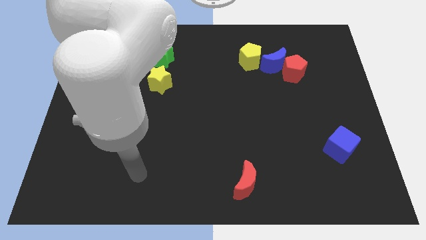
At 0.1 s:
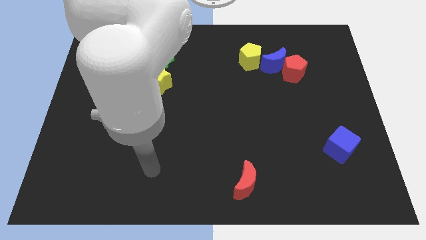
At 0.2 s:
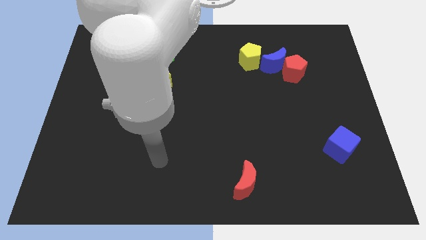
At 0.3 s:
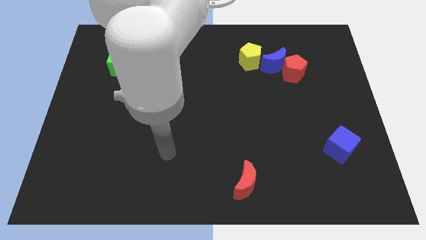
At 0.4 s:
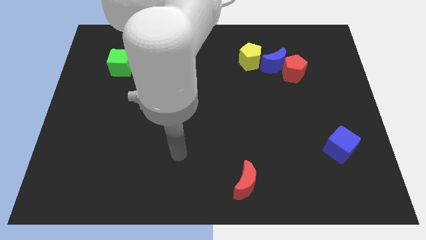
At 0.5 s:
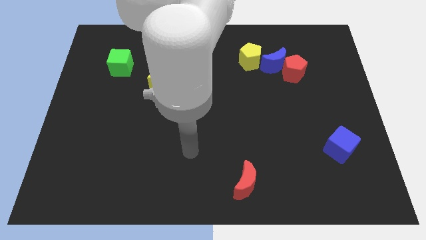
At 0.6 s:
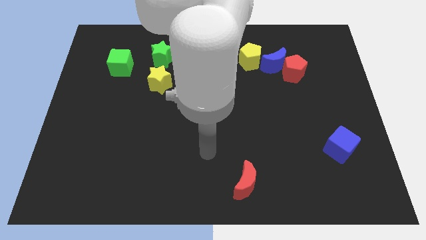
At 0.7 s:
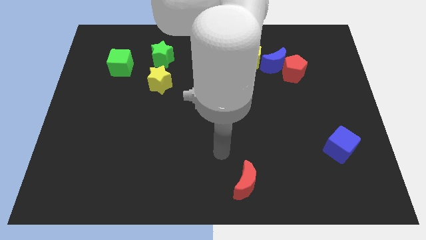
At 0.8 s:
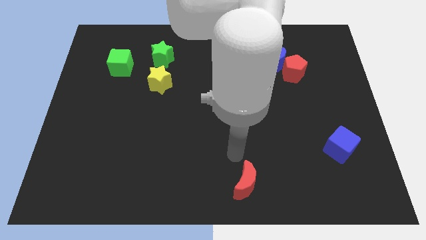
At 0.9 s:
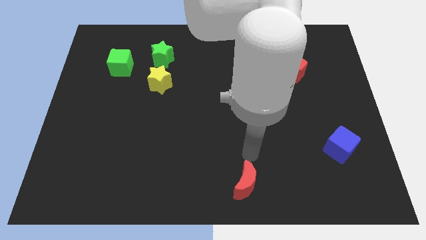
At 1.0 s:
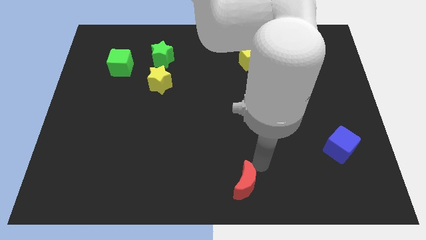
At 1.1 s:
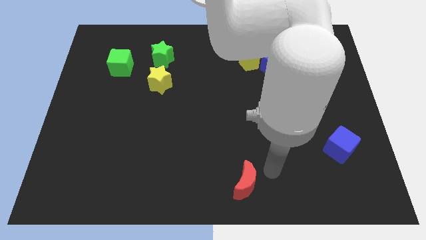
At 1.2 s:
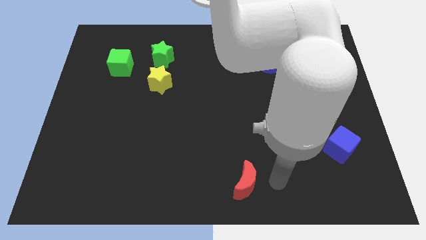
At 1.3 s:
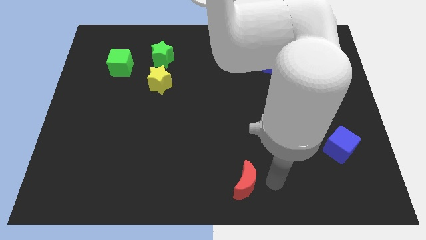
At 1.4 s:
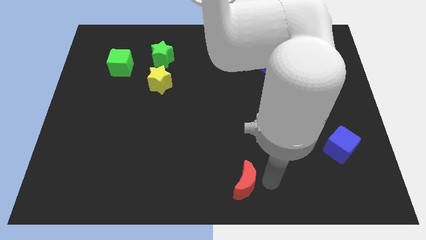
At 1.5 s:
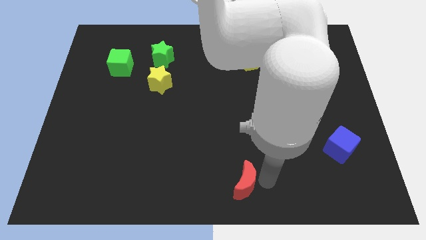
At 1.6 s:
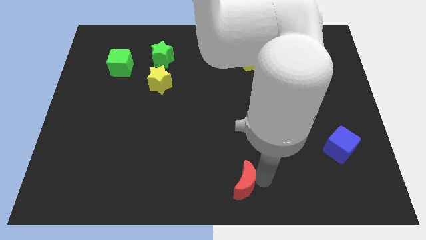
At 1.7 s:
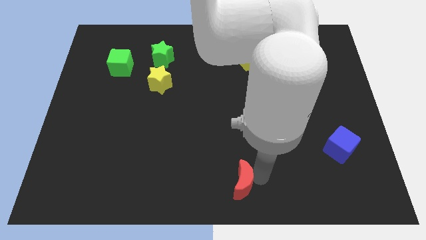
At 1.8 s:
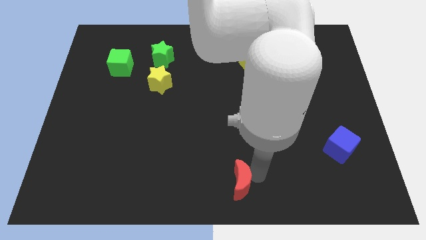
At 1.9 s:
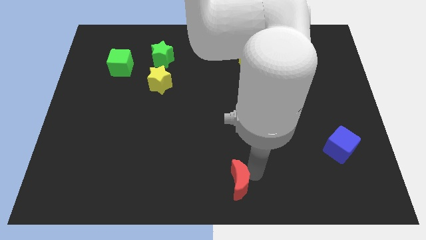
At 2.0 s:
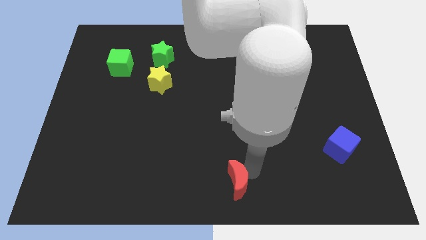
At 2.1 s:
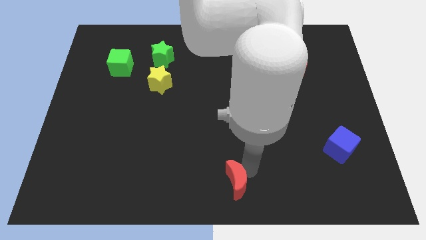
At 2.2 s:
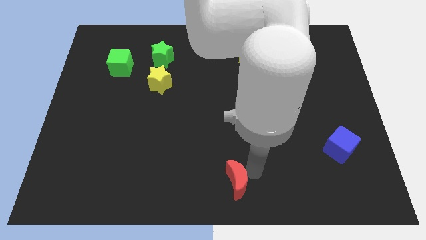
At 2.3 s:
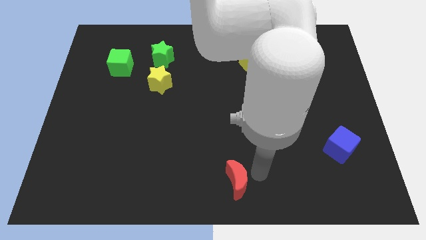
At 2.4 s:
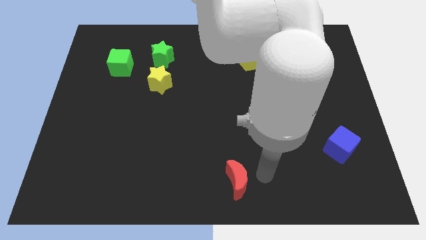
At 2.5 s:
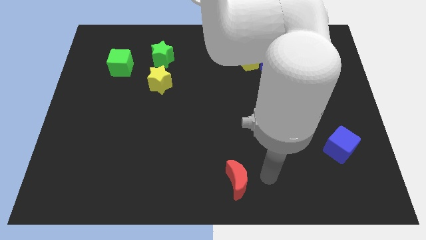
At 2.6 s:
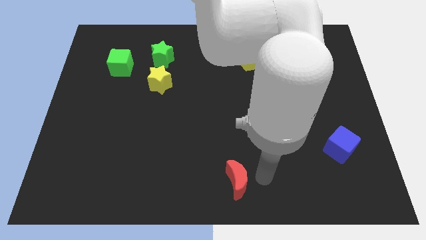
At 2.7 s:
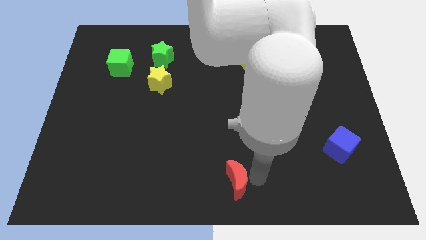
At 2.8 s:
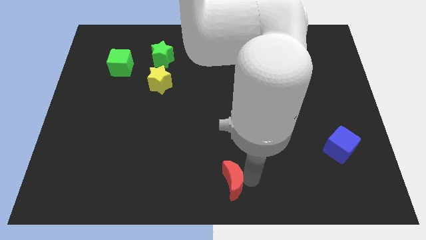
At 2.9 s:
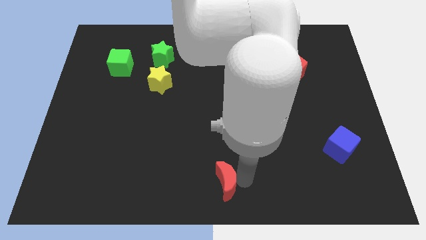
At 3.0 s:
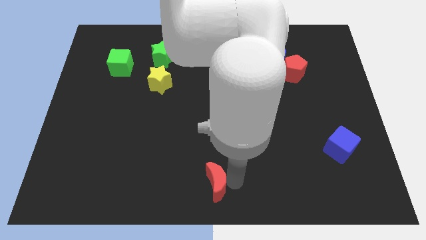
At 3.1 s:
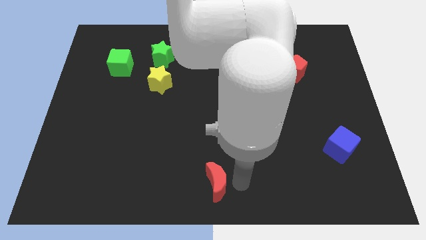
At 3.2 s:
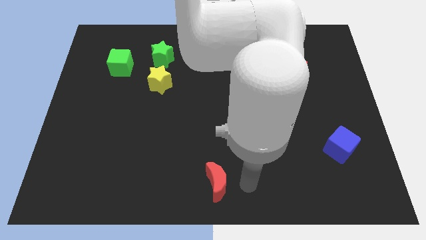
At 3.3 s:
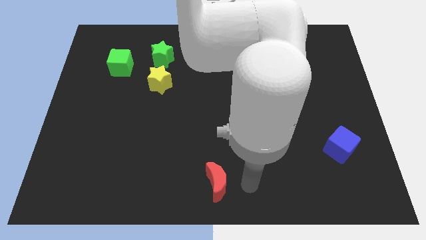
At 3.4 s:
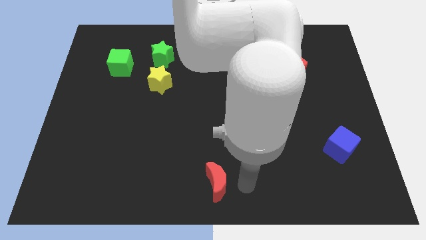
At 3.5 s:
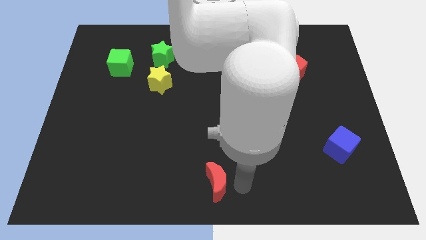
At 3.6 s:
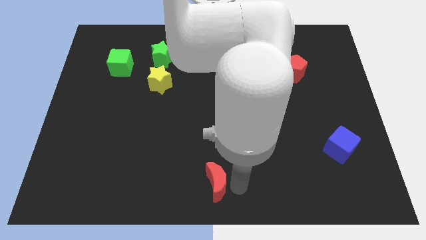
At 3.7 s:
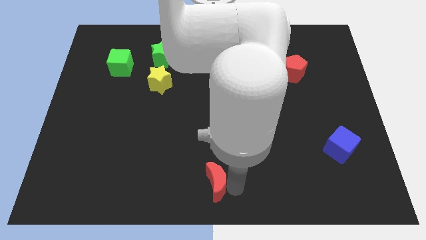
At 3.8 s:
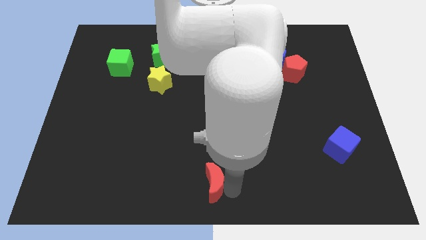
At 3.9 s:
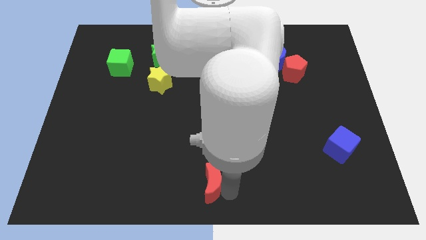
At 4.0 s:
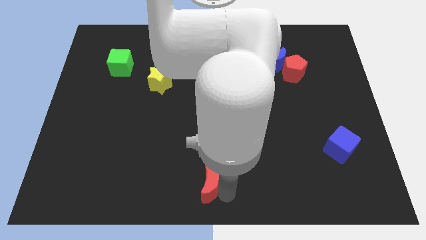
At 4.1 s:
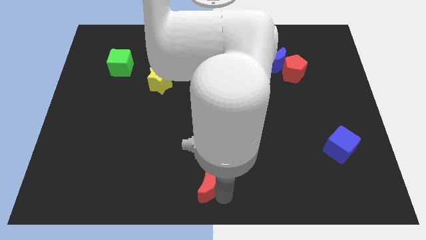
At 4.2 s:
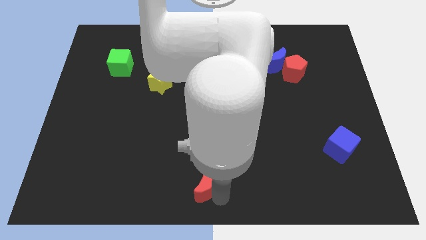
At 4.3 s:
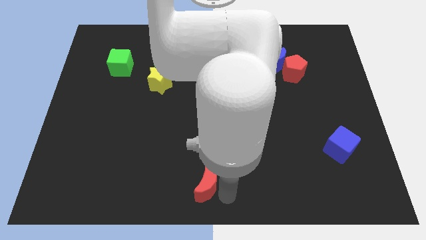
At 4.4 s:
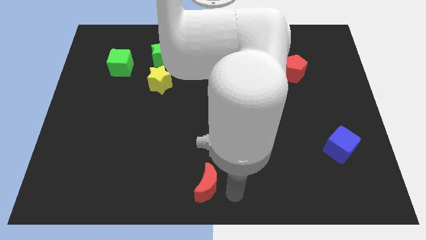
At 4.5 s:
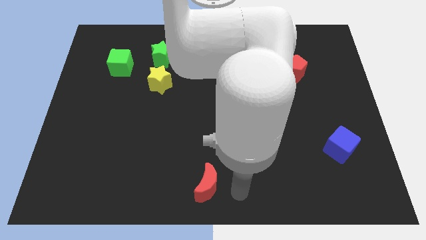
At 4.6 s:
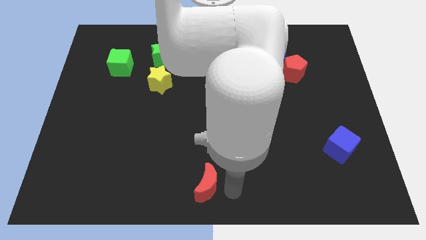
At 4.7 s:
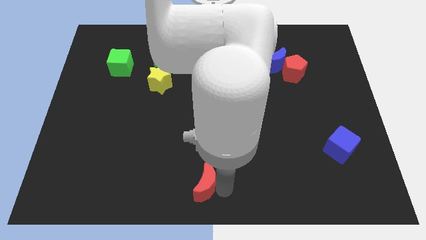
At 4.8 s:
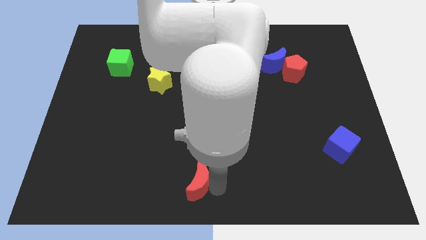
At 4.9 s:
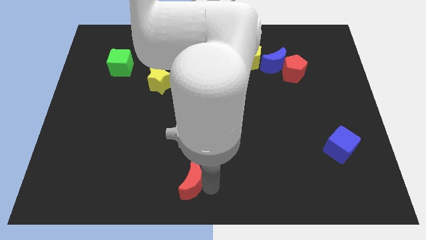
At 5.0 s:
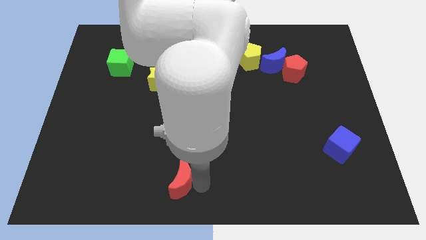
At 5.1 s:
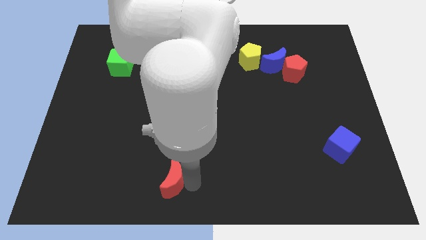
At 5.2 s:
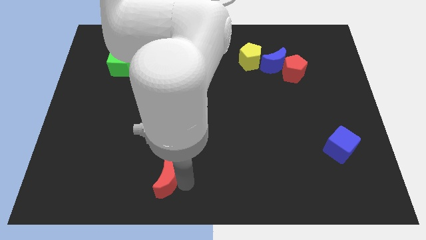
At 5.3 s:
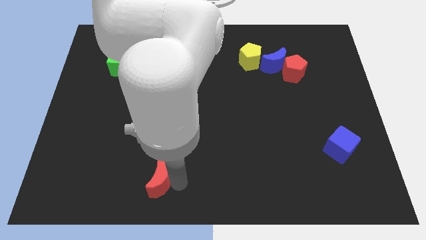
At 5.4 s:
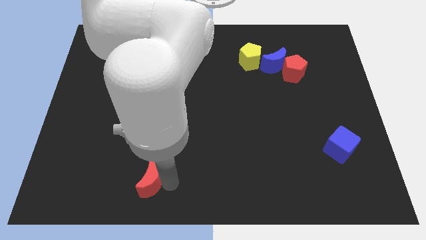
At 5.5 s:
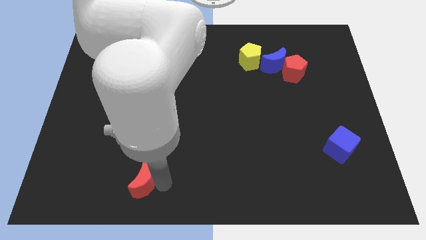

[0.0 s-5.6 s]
move the red moon left

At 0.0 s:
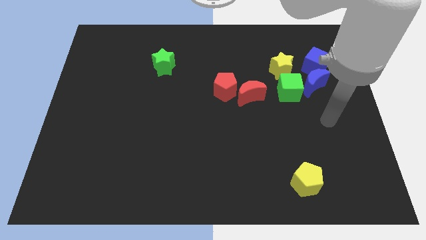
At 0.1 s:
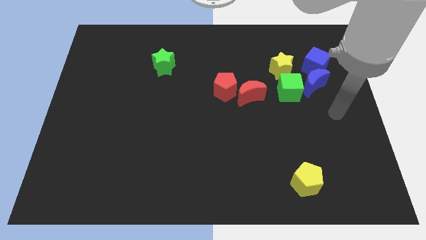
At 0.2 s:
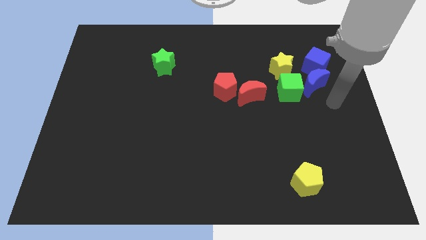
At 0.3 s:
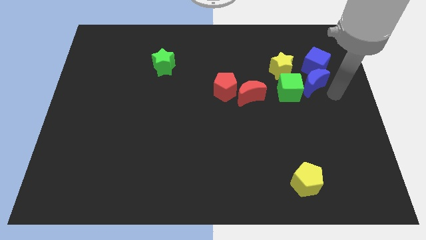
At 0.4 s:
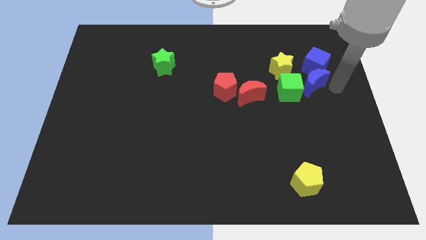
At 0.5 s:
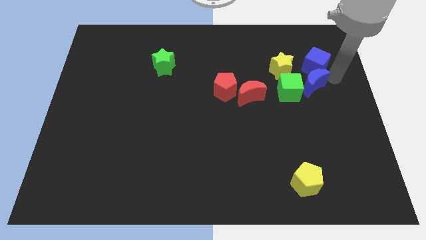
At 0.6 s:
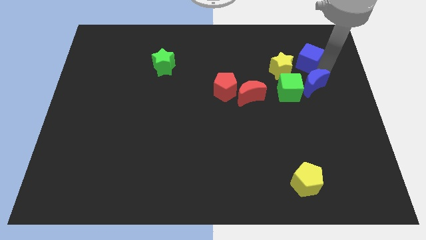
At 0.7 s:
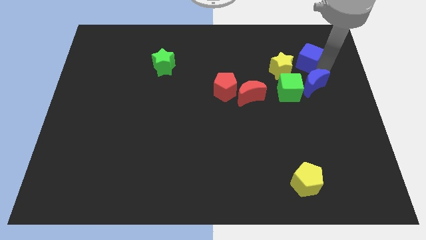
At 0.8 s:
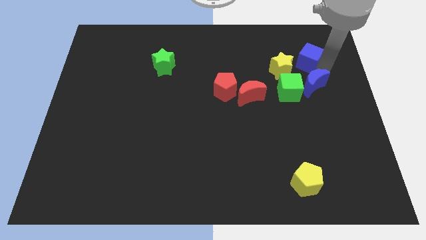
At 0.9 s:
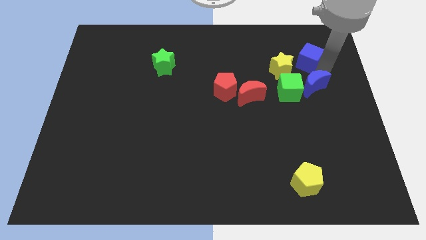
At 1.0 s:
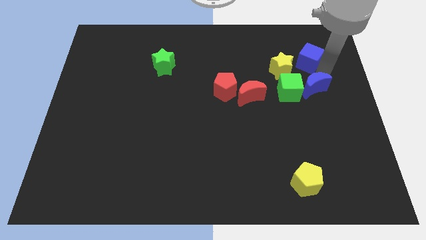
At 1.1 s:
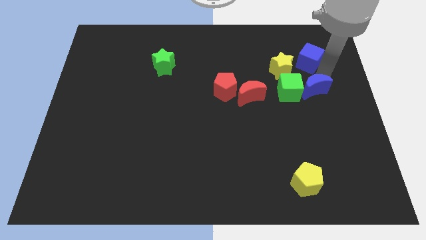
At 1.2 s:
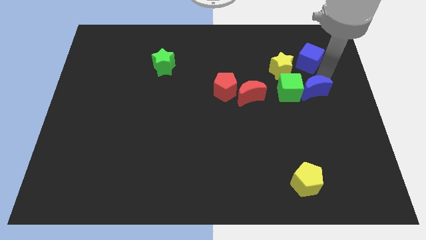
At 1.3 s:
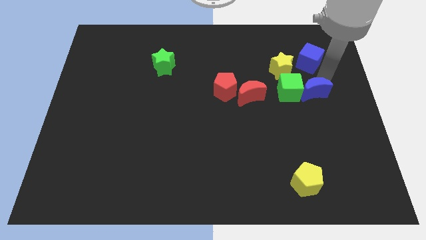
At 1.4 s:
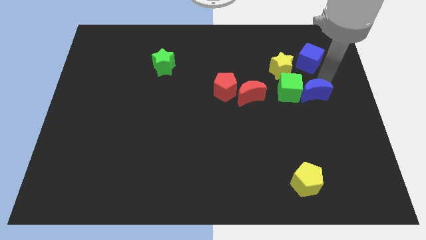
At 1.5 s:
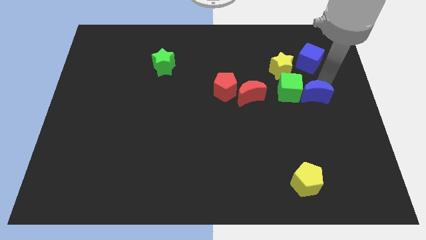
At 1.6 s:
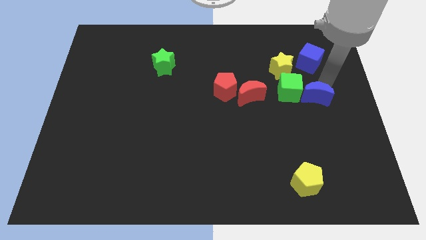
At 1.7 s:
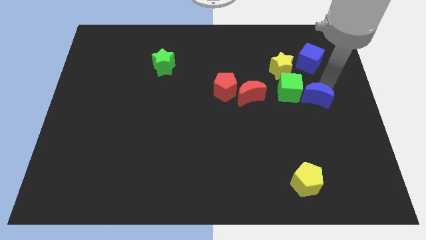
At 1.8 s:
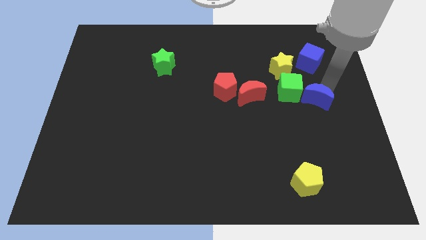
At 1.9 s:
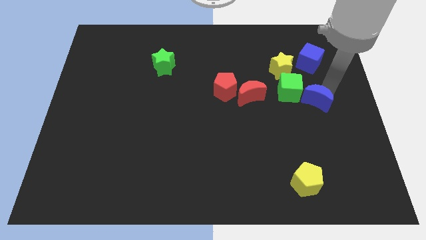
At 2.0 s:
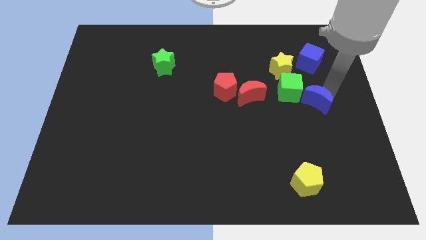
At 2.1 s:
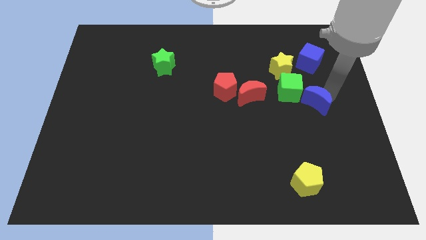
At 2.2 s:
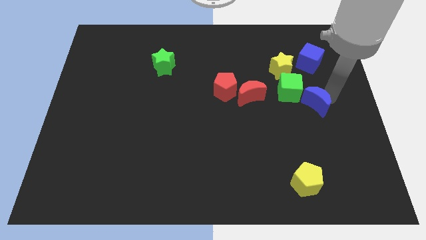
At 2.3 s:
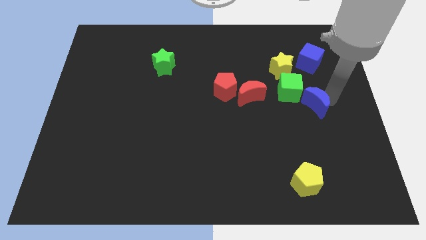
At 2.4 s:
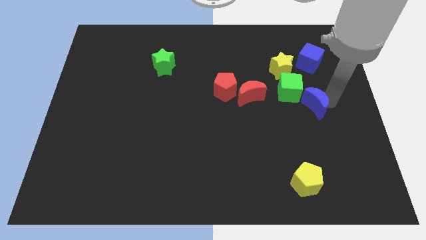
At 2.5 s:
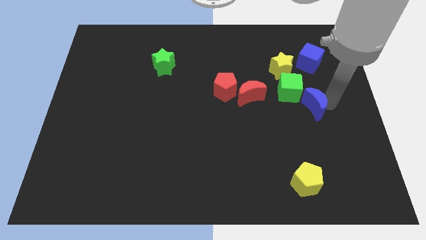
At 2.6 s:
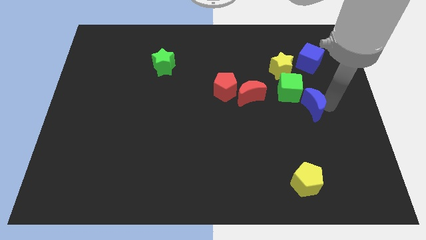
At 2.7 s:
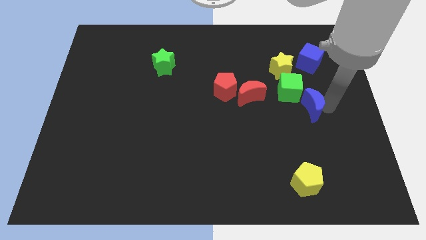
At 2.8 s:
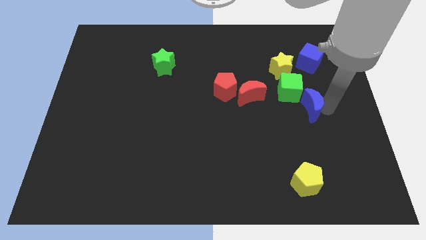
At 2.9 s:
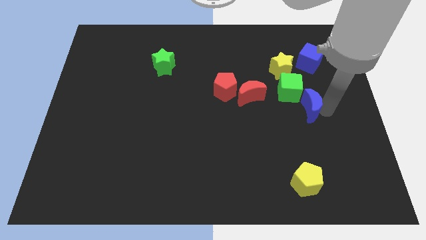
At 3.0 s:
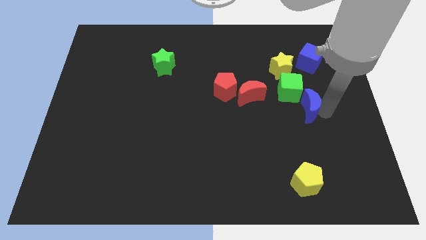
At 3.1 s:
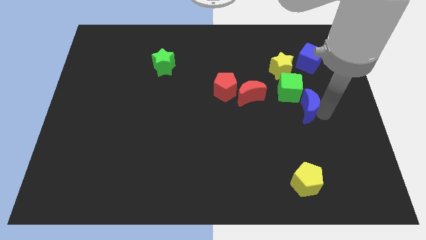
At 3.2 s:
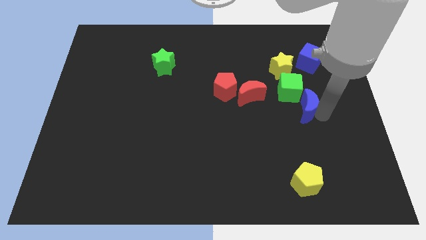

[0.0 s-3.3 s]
slightly slide the blue moon downwards and to the left diagonally
